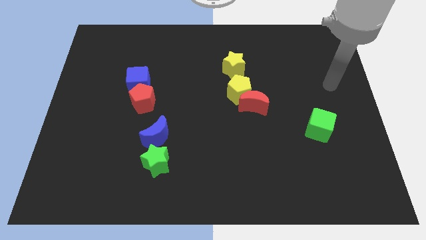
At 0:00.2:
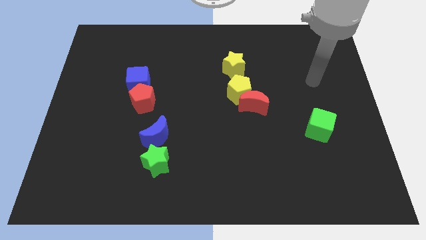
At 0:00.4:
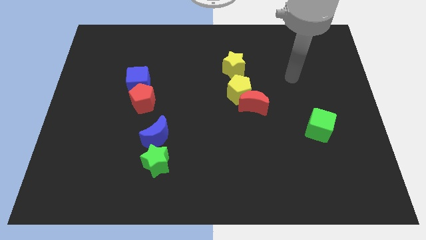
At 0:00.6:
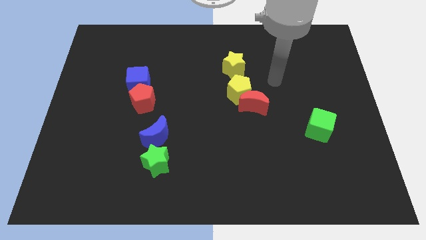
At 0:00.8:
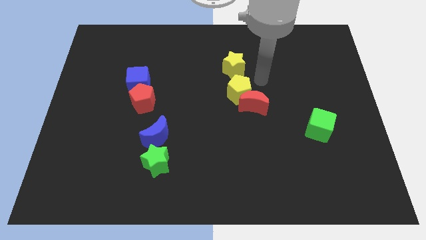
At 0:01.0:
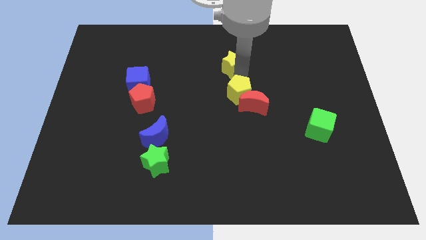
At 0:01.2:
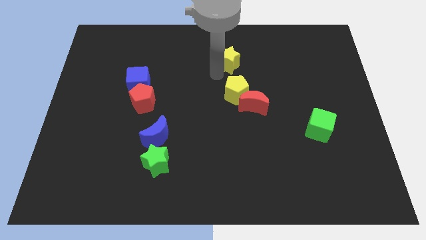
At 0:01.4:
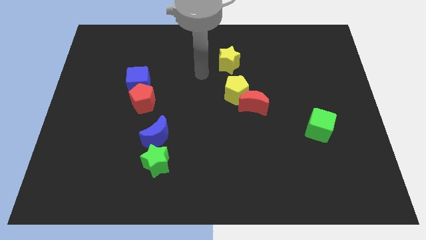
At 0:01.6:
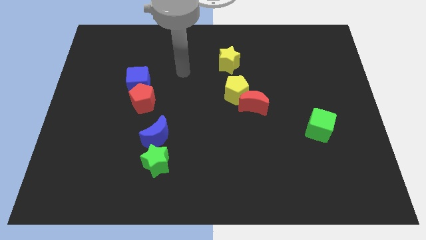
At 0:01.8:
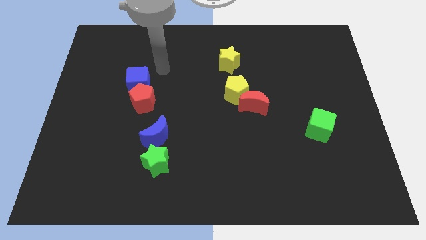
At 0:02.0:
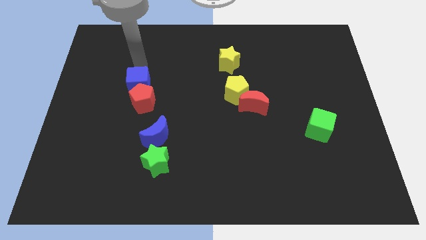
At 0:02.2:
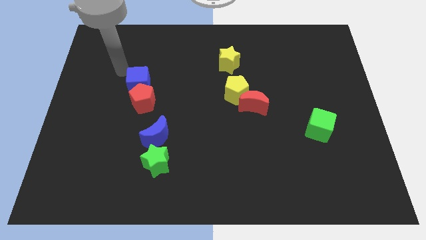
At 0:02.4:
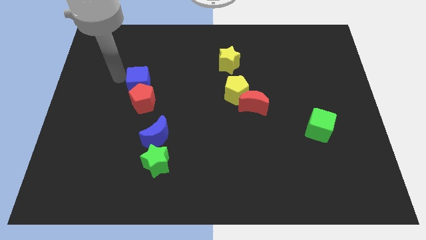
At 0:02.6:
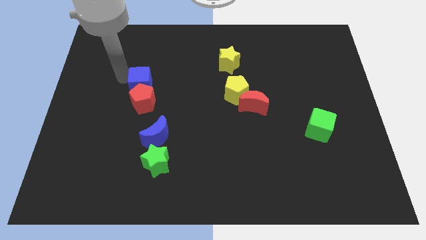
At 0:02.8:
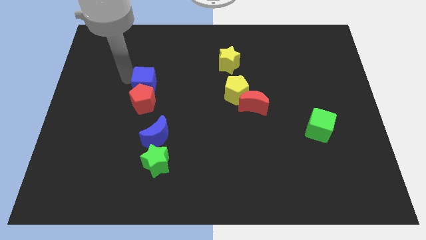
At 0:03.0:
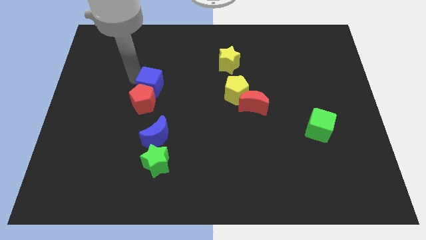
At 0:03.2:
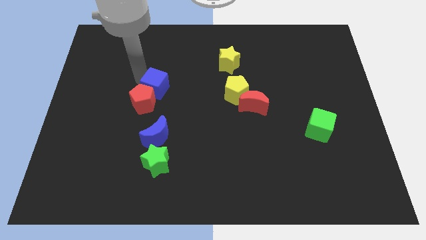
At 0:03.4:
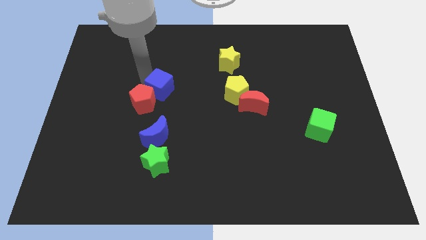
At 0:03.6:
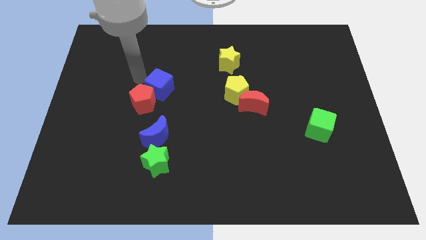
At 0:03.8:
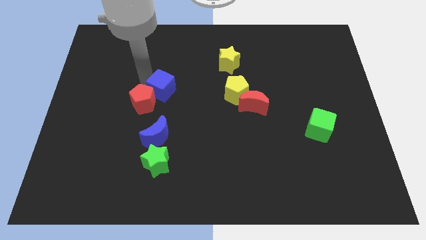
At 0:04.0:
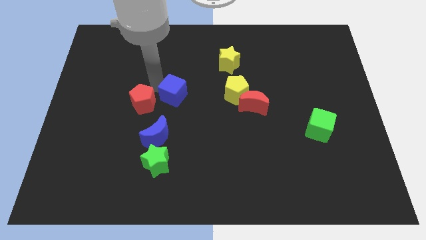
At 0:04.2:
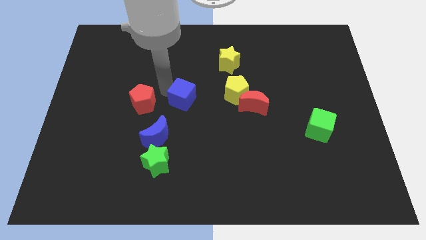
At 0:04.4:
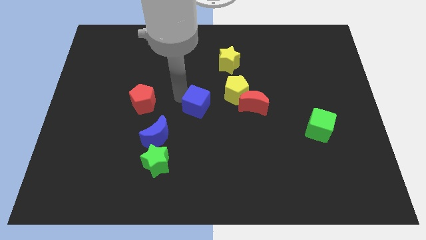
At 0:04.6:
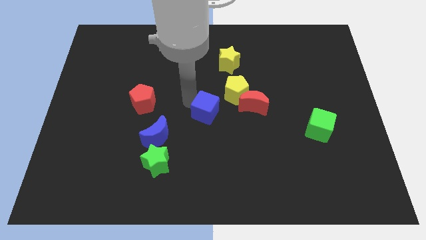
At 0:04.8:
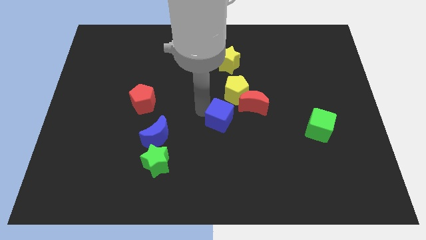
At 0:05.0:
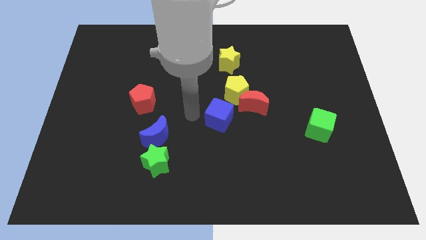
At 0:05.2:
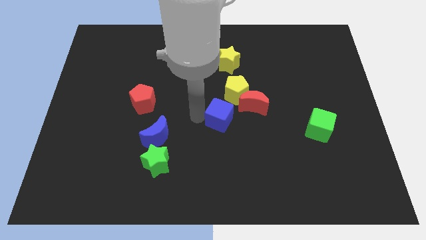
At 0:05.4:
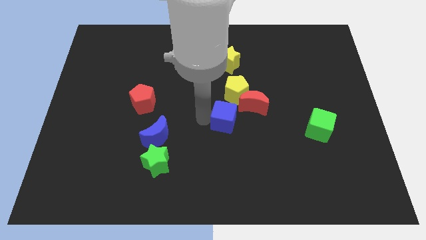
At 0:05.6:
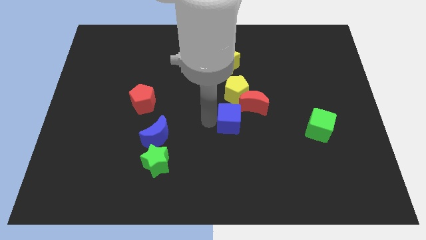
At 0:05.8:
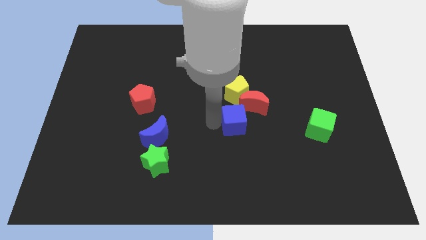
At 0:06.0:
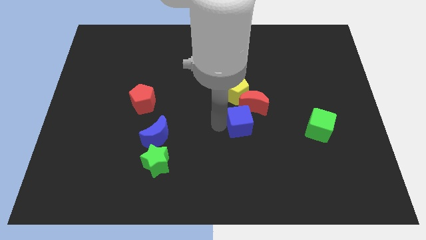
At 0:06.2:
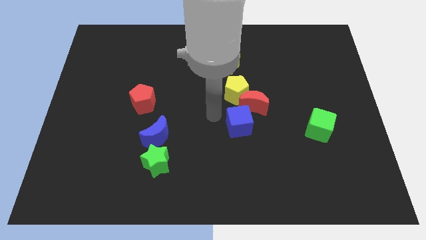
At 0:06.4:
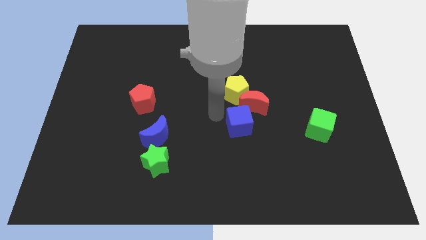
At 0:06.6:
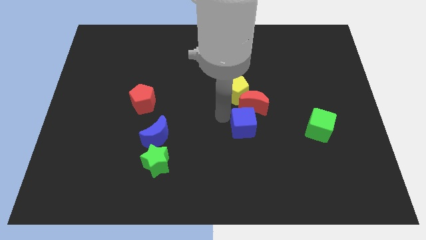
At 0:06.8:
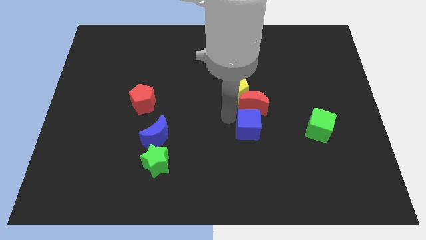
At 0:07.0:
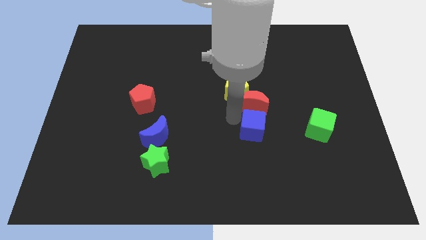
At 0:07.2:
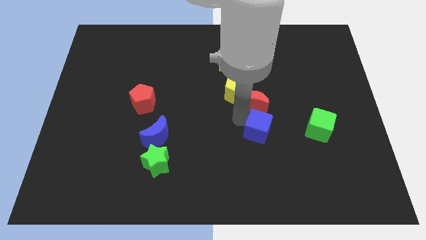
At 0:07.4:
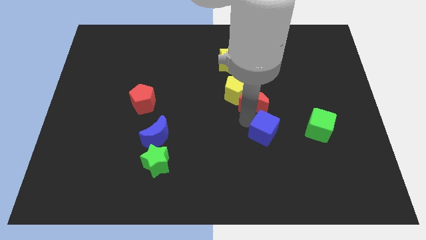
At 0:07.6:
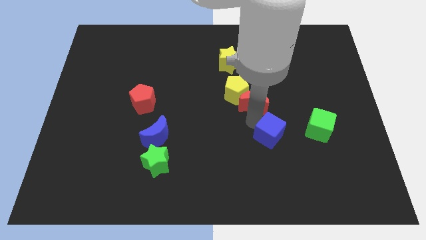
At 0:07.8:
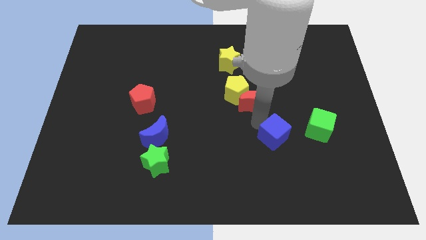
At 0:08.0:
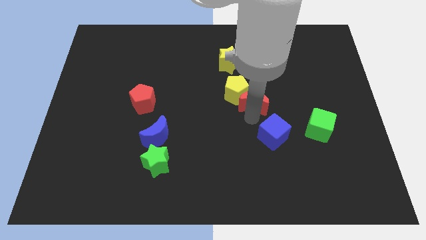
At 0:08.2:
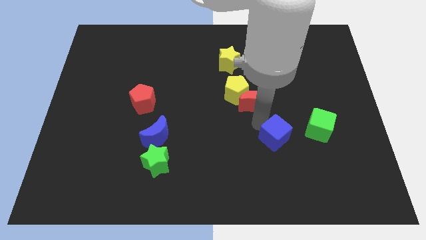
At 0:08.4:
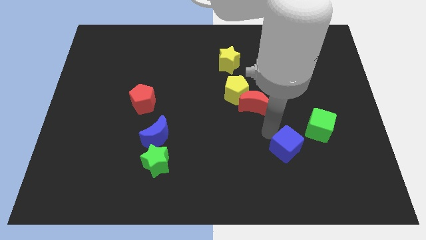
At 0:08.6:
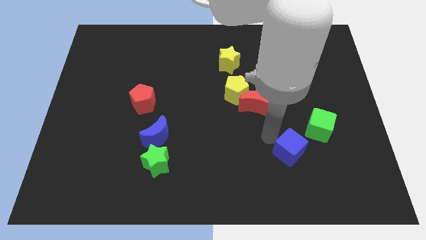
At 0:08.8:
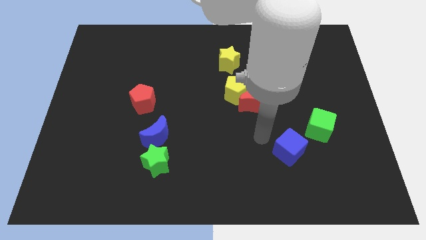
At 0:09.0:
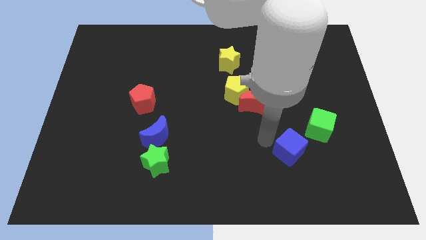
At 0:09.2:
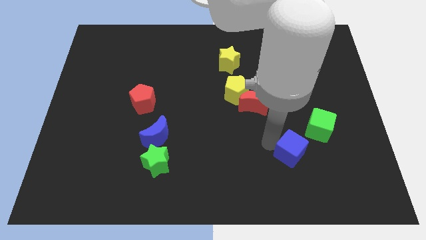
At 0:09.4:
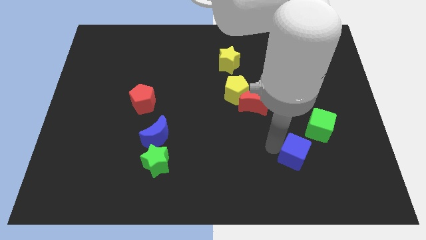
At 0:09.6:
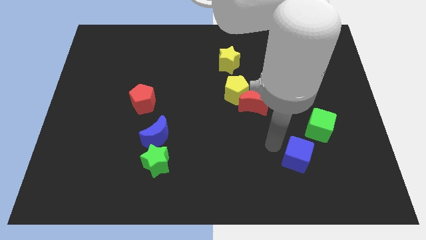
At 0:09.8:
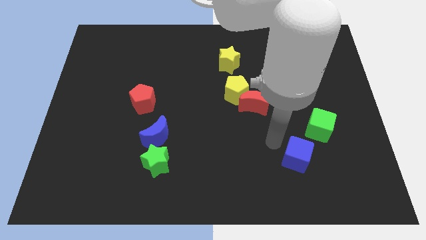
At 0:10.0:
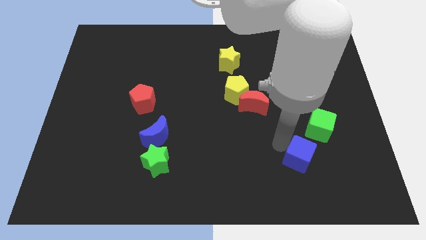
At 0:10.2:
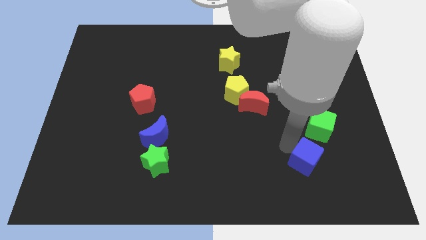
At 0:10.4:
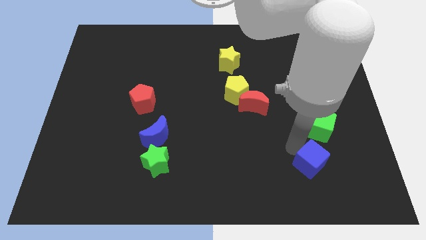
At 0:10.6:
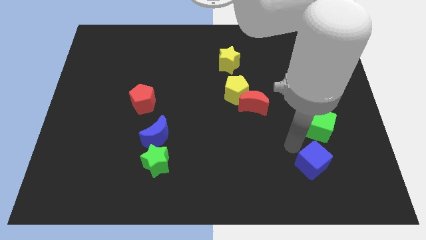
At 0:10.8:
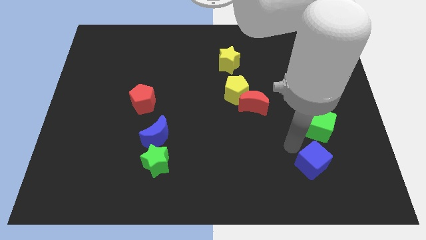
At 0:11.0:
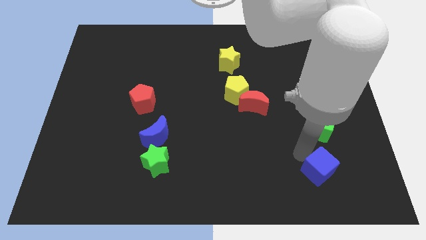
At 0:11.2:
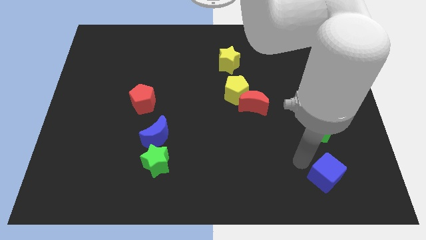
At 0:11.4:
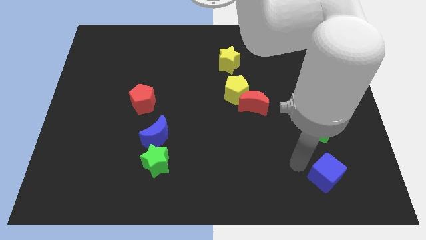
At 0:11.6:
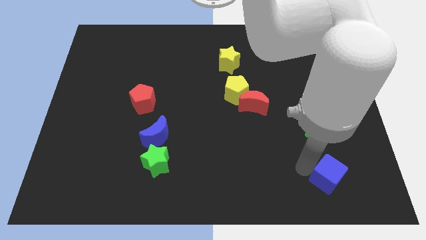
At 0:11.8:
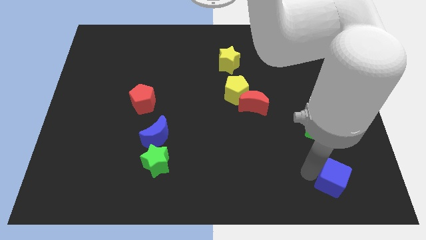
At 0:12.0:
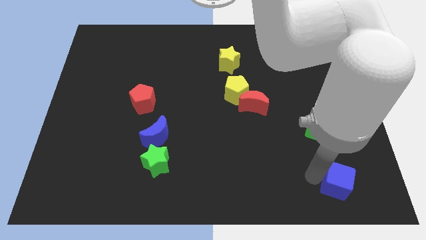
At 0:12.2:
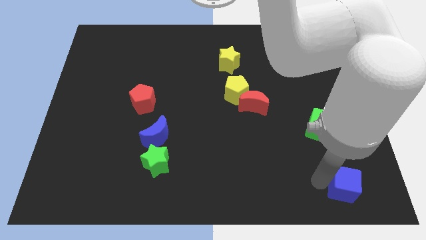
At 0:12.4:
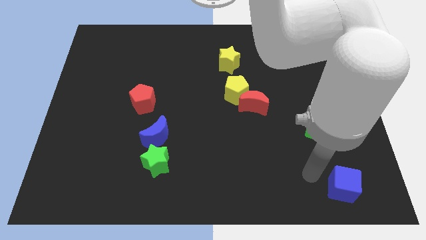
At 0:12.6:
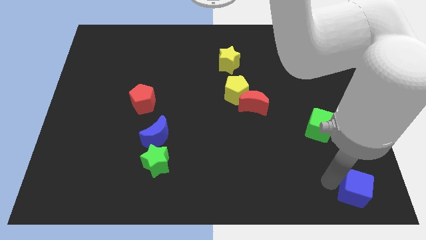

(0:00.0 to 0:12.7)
put the blue cube to the bottom right of the board

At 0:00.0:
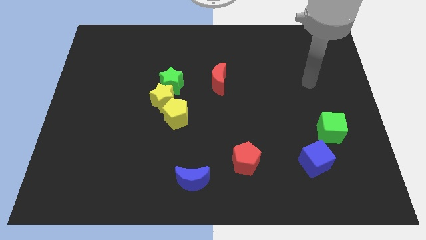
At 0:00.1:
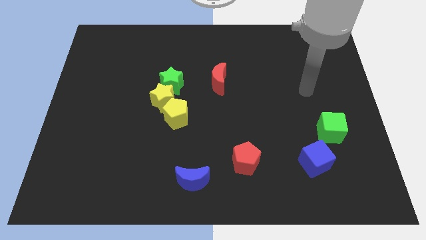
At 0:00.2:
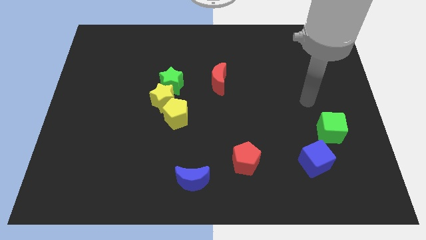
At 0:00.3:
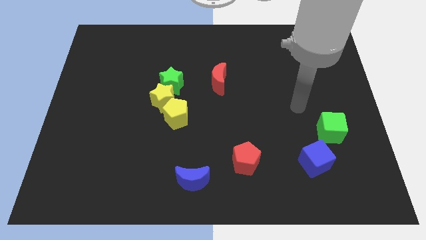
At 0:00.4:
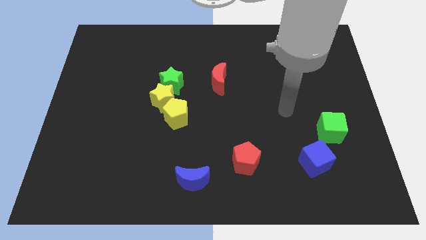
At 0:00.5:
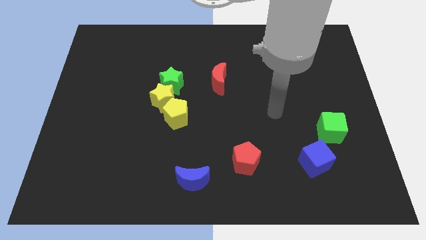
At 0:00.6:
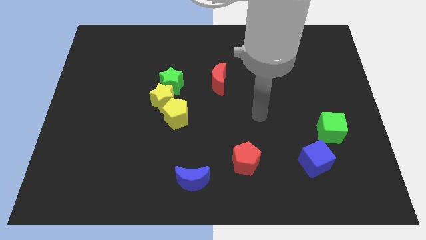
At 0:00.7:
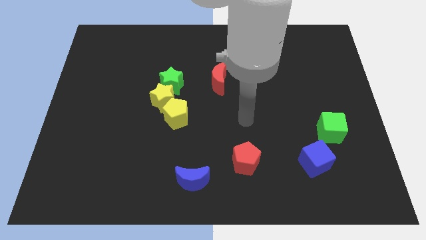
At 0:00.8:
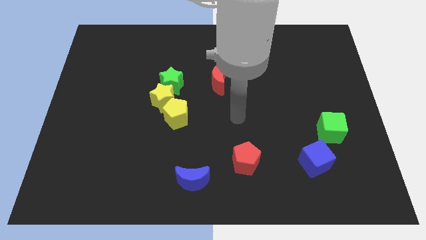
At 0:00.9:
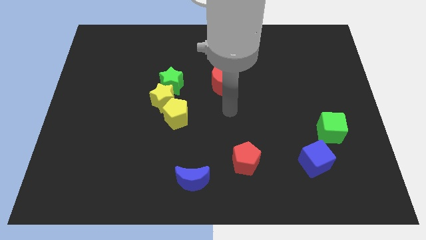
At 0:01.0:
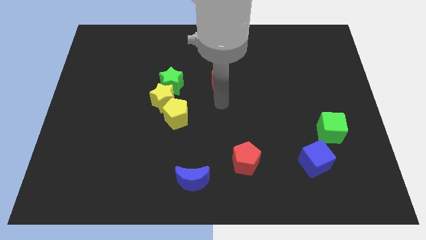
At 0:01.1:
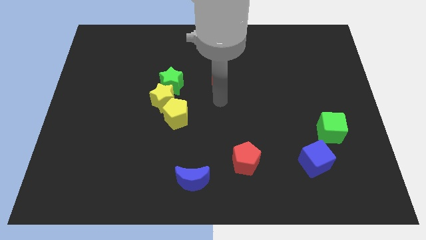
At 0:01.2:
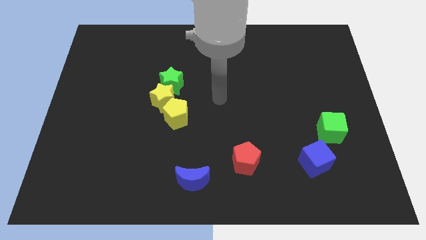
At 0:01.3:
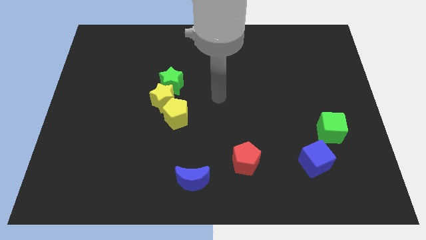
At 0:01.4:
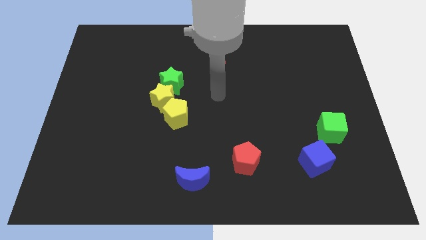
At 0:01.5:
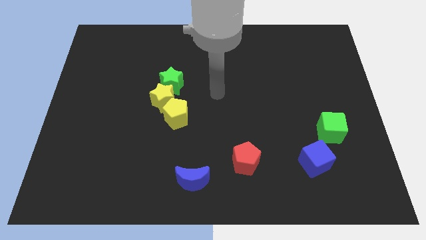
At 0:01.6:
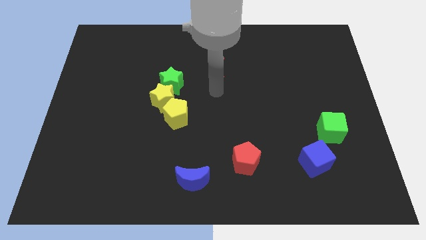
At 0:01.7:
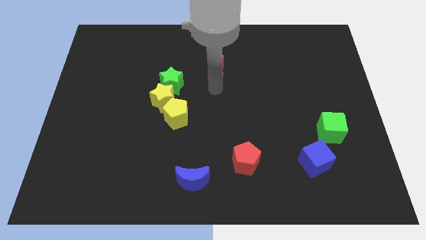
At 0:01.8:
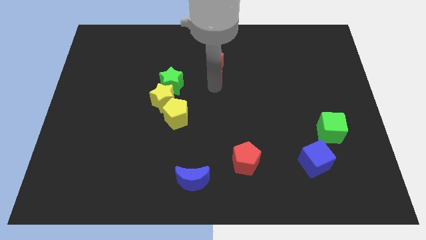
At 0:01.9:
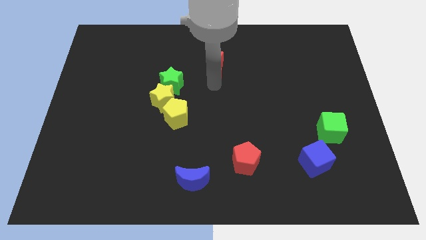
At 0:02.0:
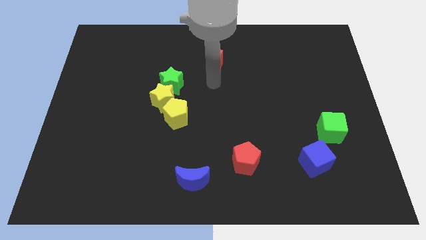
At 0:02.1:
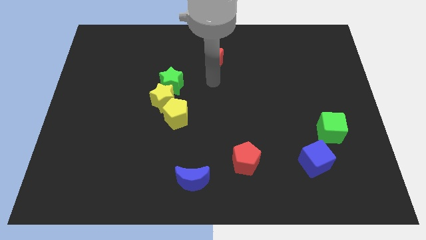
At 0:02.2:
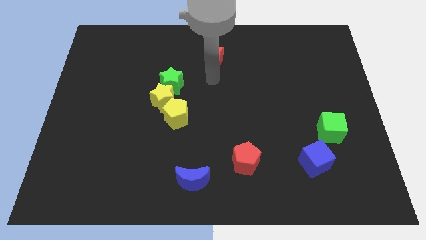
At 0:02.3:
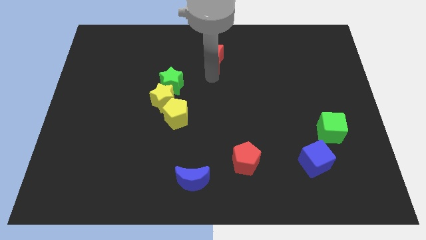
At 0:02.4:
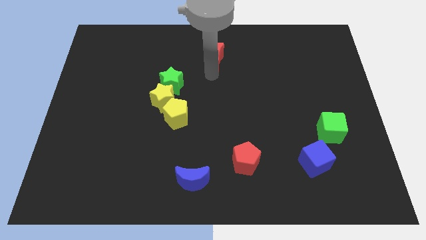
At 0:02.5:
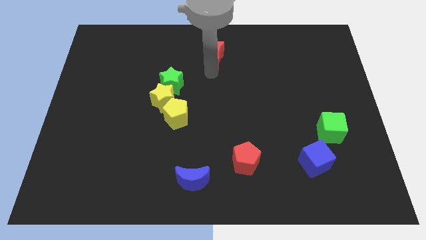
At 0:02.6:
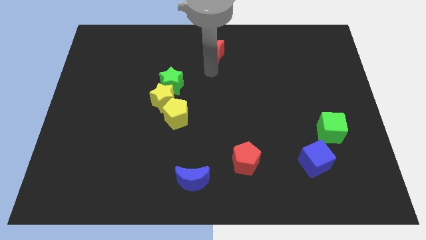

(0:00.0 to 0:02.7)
put the red moon to the towards your base
